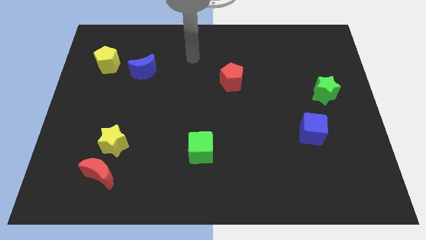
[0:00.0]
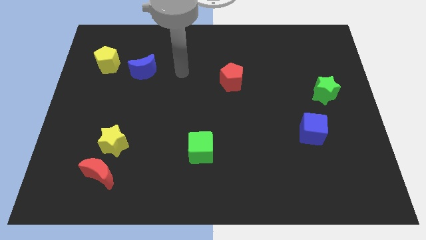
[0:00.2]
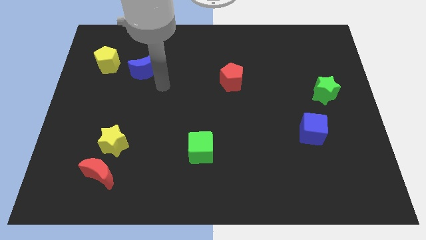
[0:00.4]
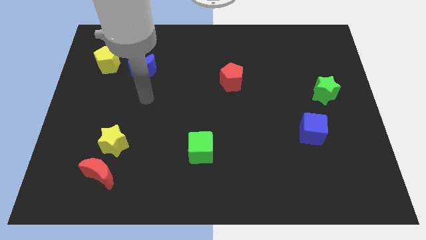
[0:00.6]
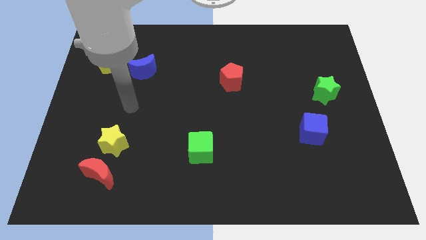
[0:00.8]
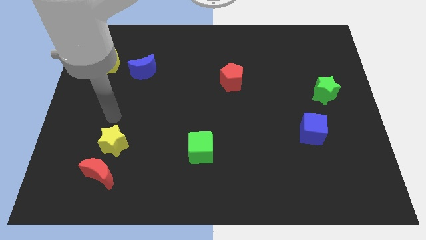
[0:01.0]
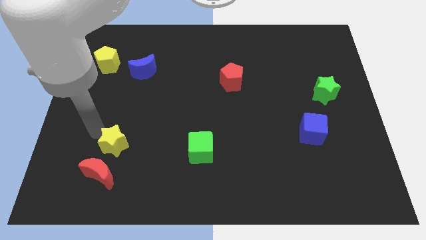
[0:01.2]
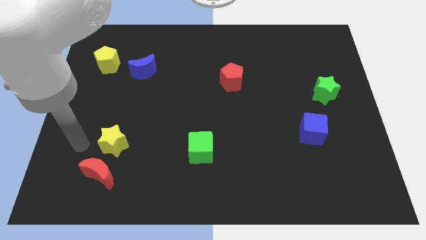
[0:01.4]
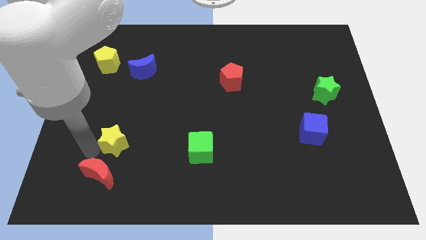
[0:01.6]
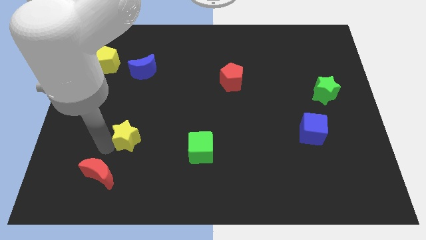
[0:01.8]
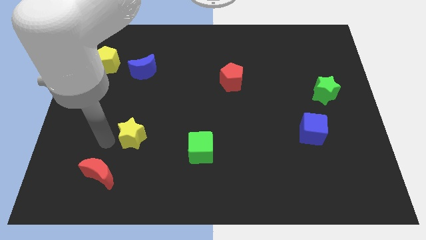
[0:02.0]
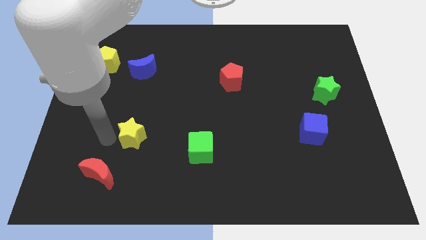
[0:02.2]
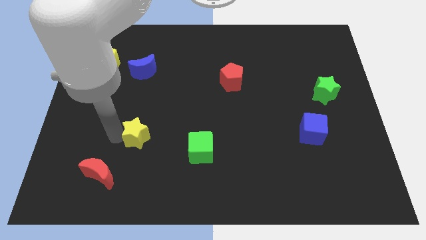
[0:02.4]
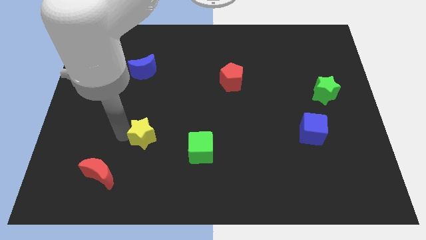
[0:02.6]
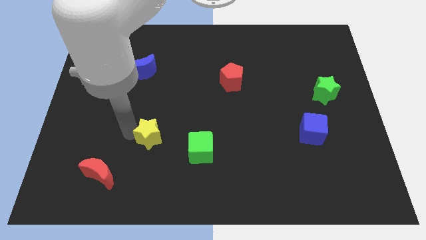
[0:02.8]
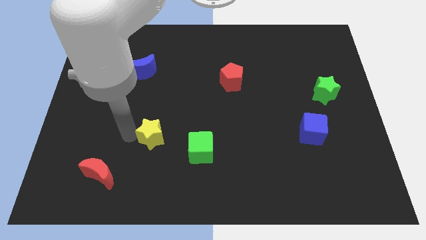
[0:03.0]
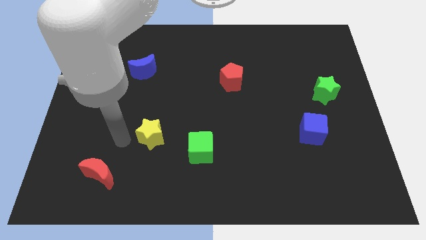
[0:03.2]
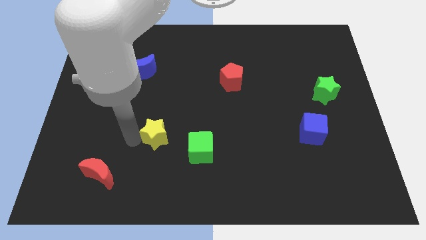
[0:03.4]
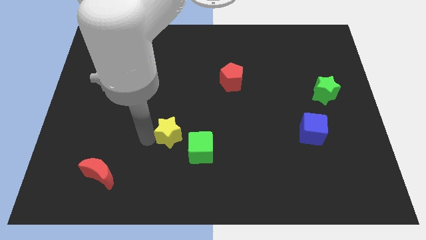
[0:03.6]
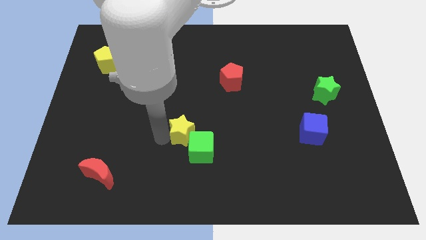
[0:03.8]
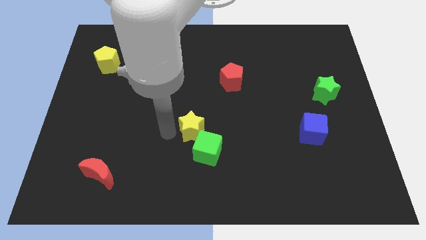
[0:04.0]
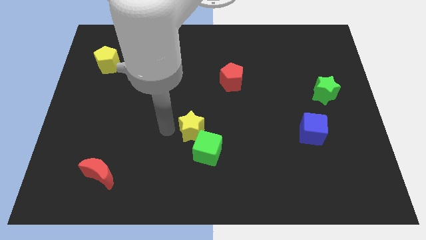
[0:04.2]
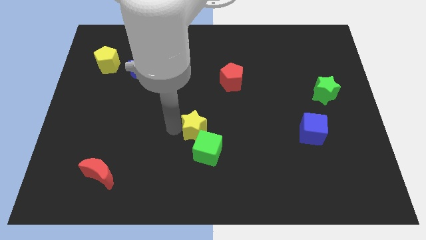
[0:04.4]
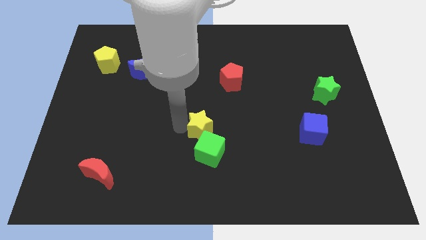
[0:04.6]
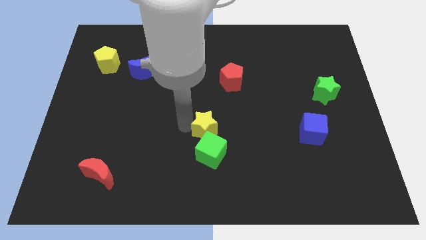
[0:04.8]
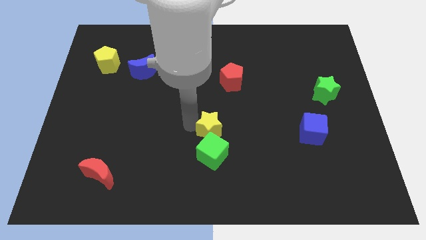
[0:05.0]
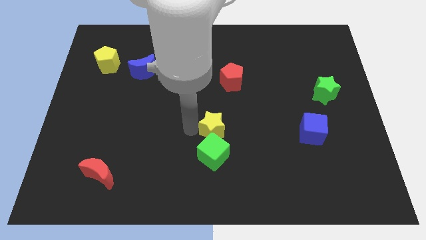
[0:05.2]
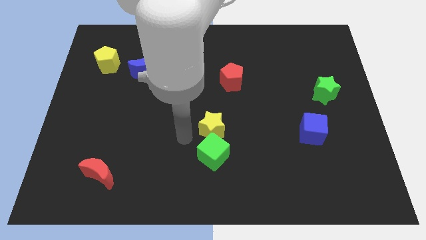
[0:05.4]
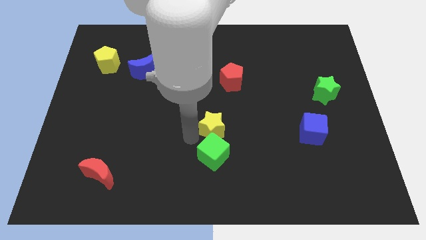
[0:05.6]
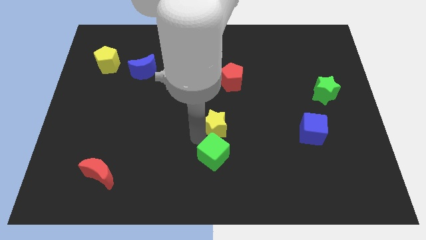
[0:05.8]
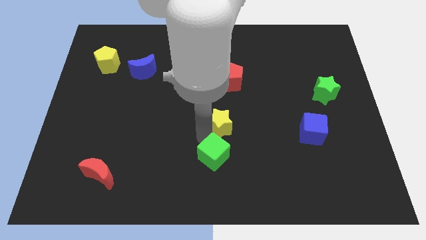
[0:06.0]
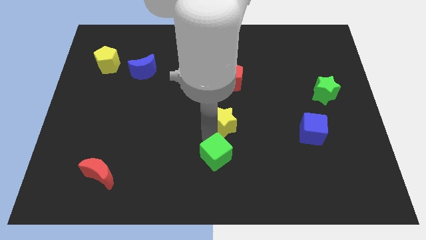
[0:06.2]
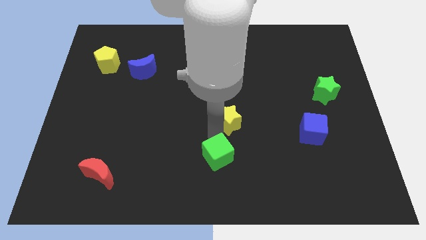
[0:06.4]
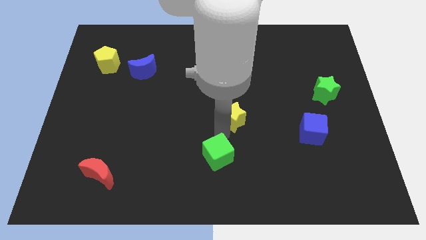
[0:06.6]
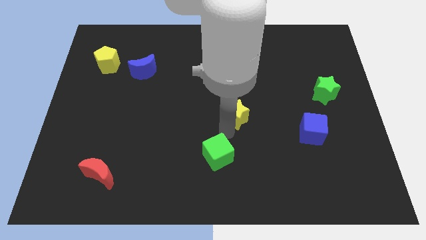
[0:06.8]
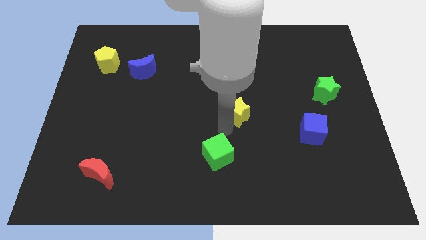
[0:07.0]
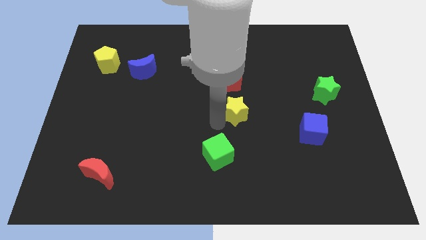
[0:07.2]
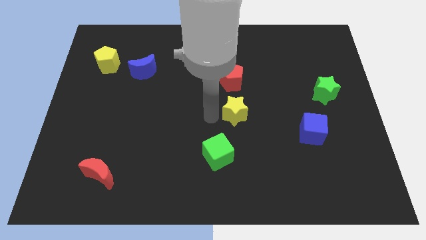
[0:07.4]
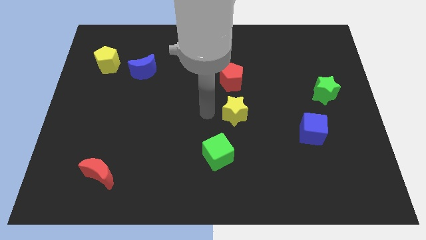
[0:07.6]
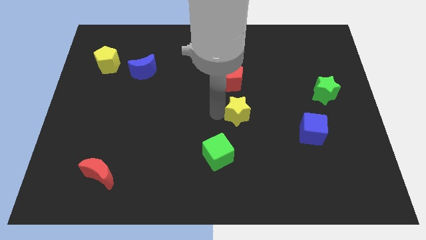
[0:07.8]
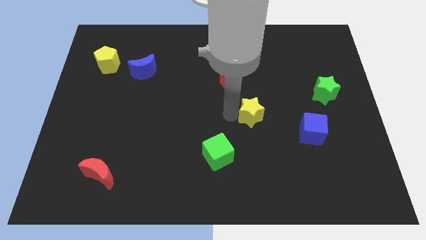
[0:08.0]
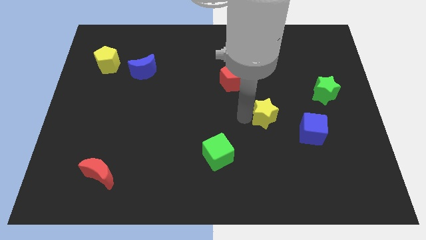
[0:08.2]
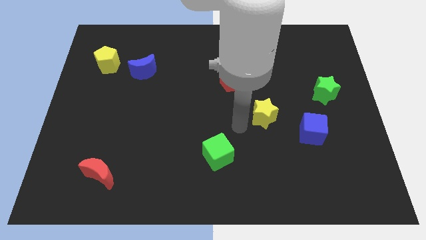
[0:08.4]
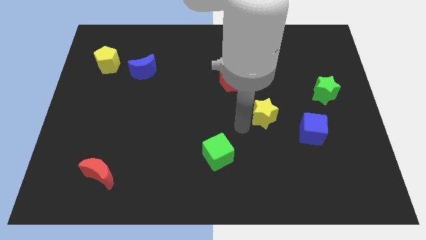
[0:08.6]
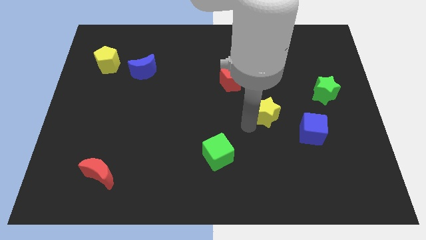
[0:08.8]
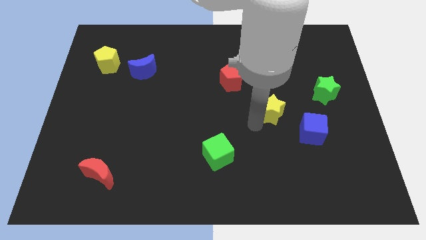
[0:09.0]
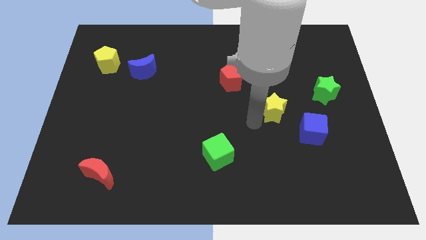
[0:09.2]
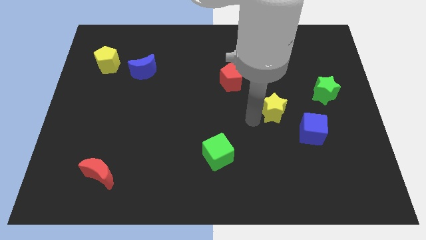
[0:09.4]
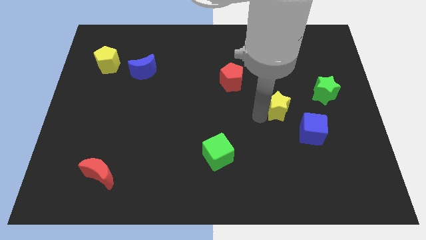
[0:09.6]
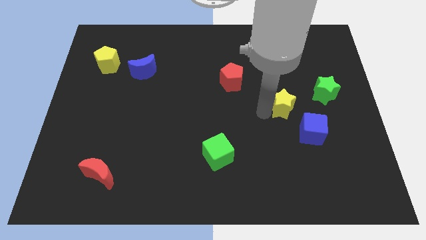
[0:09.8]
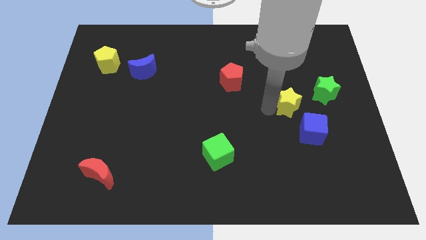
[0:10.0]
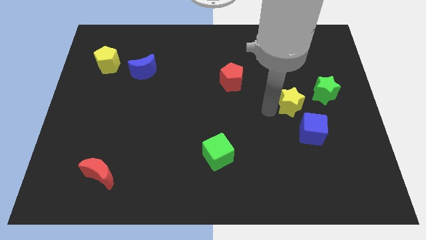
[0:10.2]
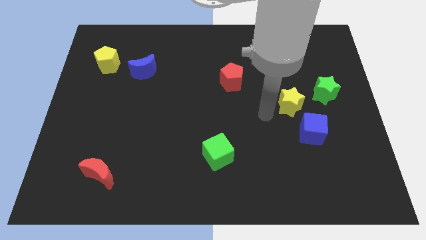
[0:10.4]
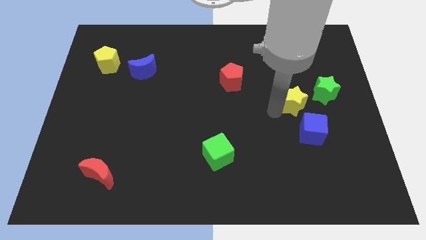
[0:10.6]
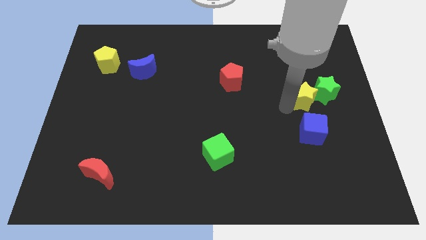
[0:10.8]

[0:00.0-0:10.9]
move the yellow star close to the green star

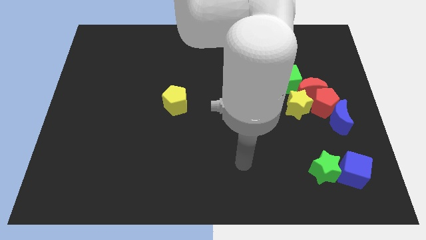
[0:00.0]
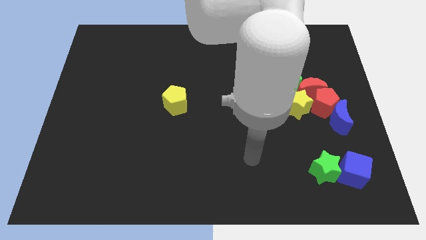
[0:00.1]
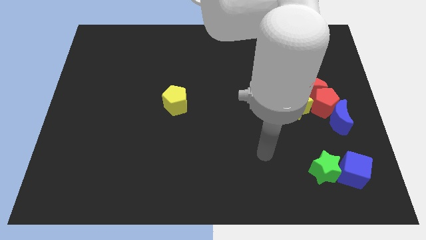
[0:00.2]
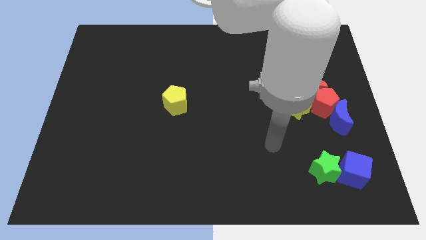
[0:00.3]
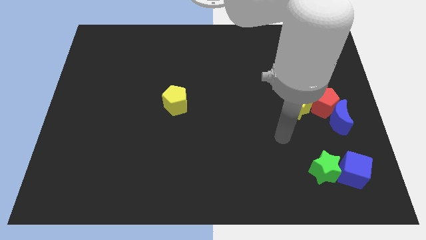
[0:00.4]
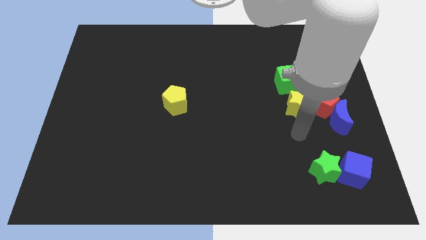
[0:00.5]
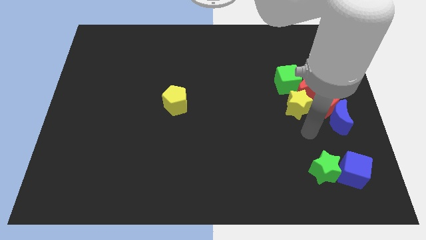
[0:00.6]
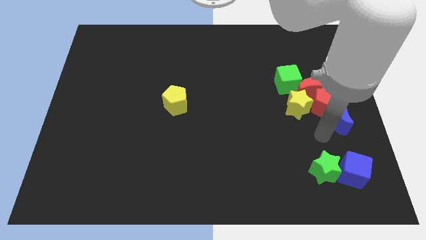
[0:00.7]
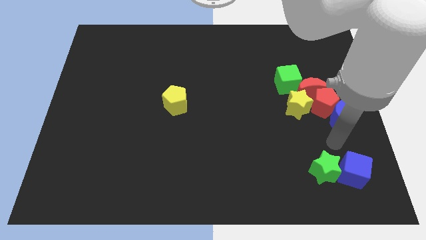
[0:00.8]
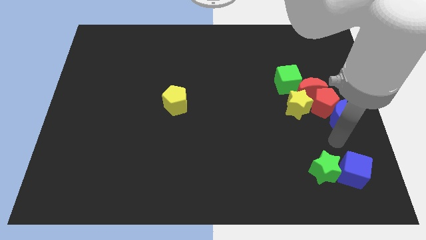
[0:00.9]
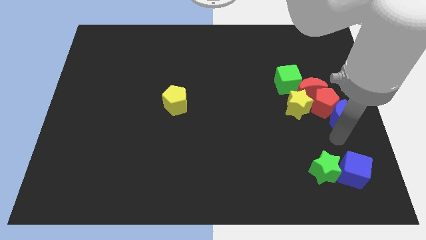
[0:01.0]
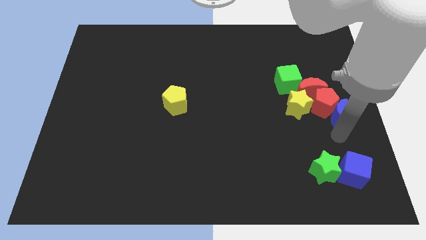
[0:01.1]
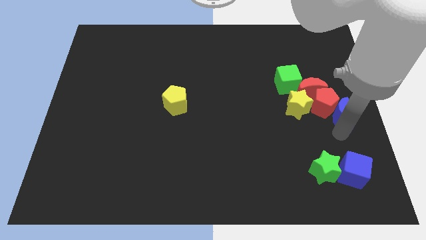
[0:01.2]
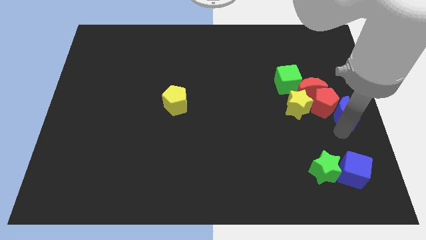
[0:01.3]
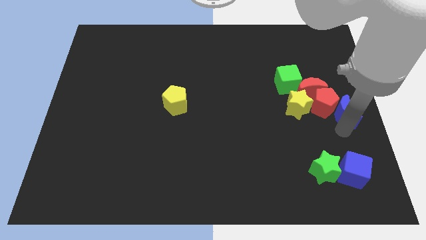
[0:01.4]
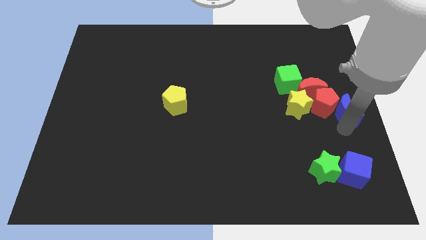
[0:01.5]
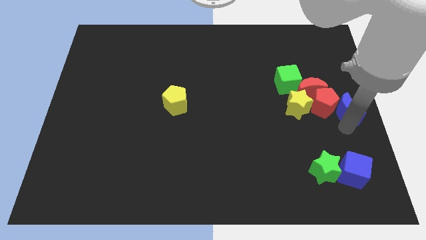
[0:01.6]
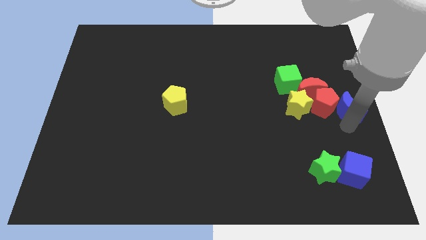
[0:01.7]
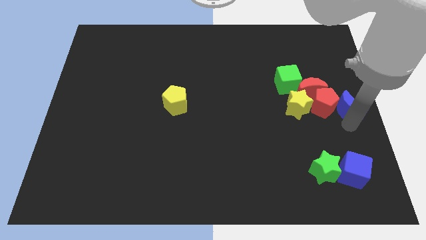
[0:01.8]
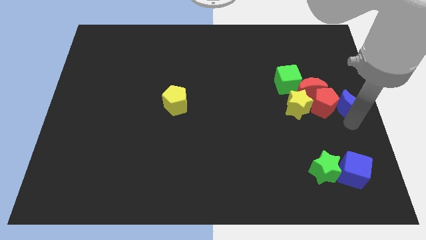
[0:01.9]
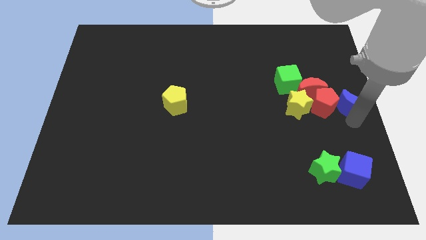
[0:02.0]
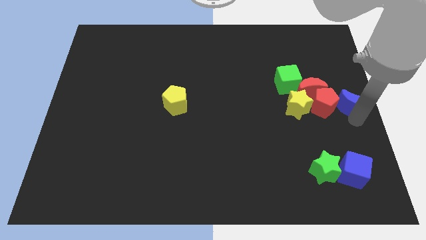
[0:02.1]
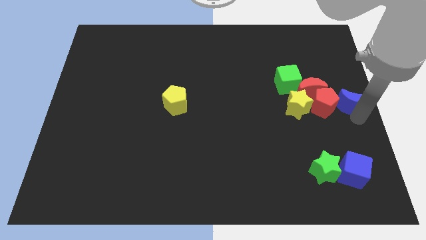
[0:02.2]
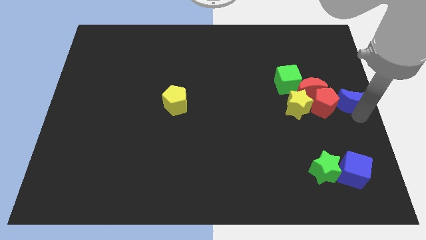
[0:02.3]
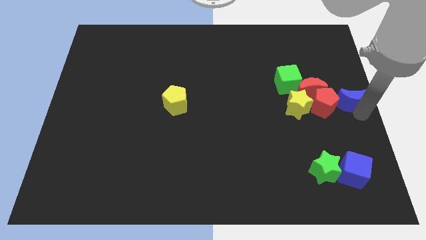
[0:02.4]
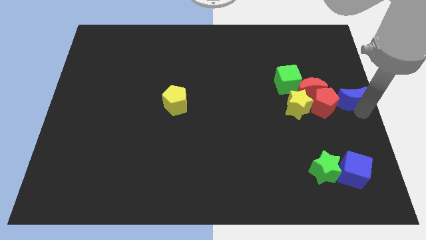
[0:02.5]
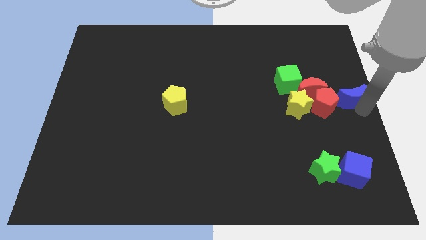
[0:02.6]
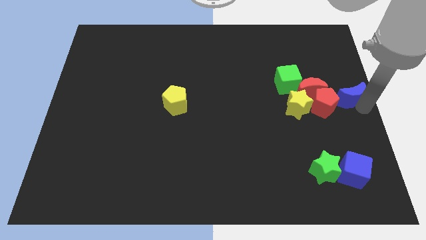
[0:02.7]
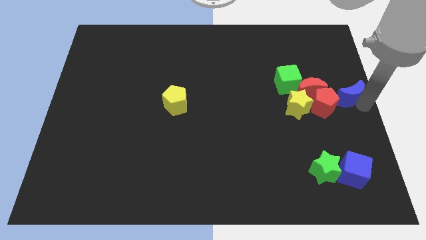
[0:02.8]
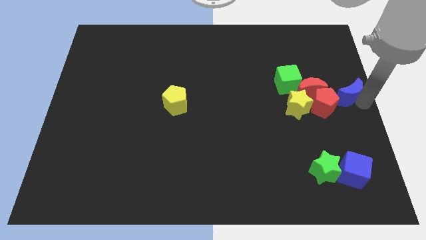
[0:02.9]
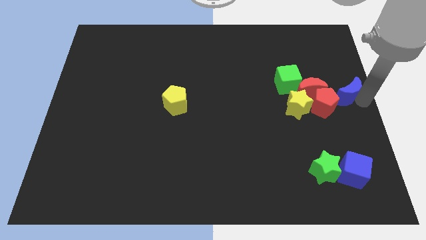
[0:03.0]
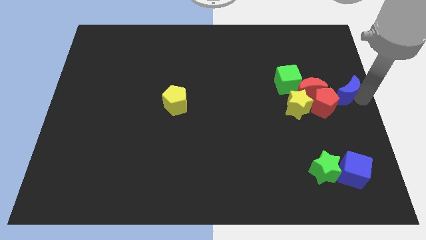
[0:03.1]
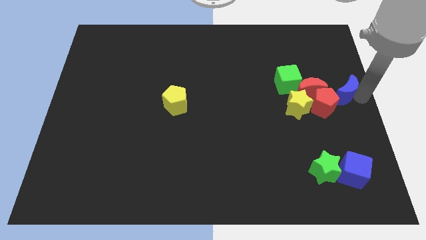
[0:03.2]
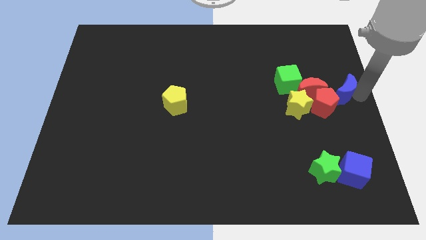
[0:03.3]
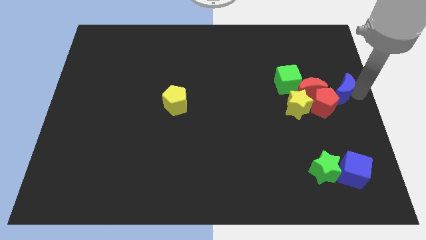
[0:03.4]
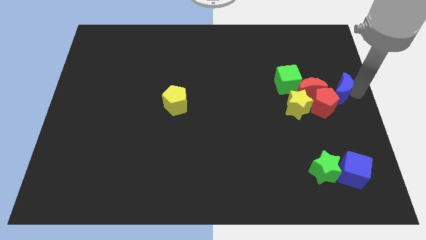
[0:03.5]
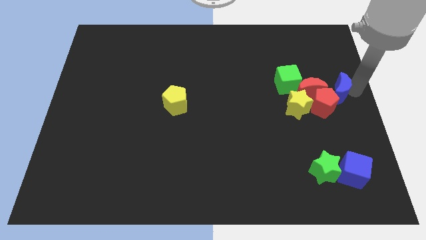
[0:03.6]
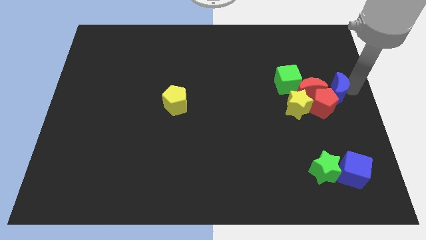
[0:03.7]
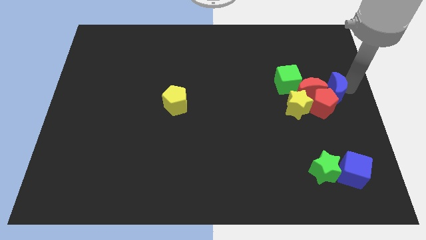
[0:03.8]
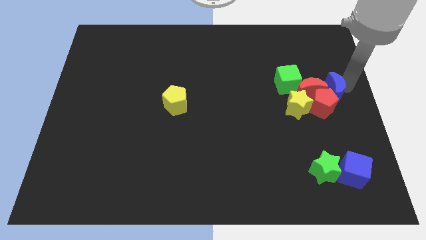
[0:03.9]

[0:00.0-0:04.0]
slide the blue moon next to the red moon
